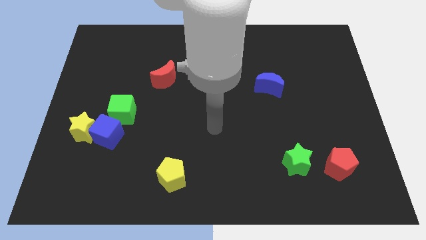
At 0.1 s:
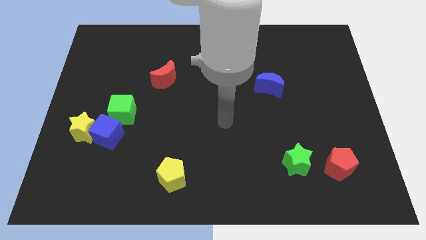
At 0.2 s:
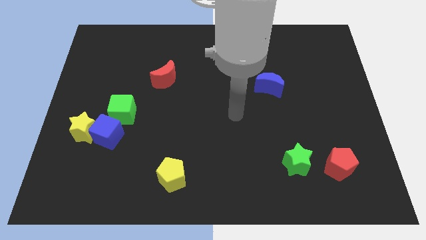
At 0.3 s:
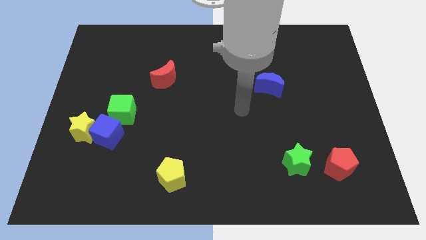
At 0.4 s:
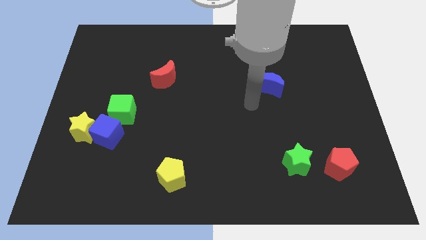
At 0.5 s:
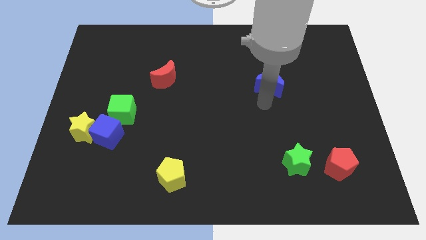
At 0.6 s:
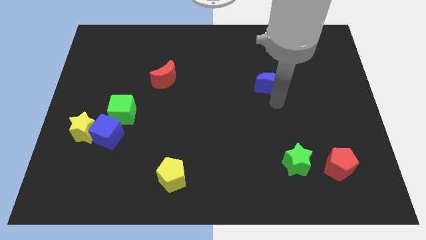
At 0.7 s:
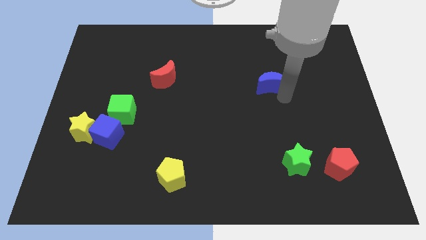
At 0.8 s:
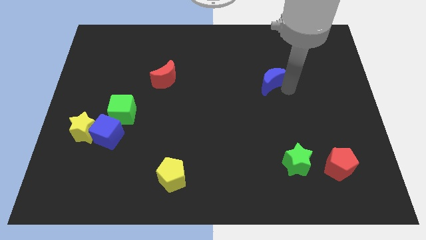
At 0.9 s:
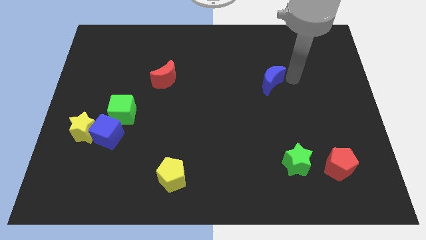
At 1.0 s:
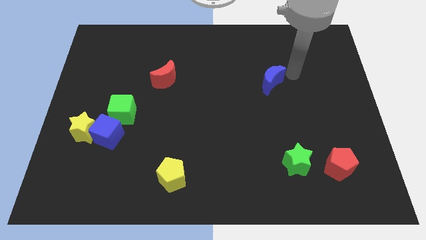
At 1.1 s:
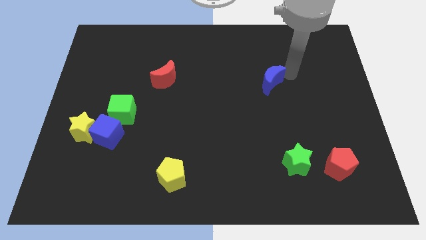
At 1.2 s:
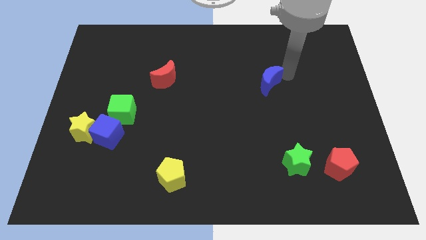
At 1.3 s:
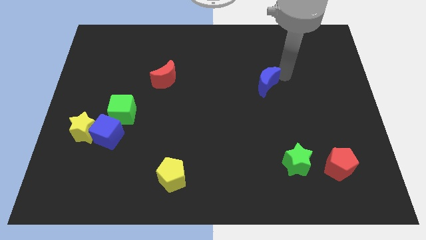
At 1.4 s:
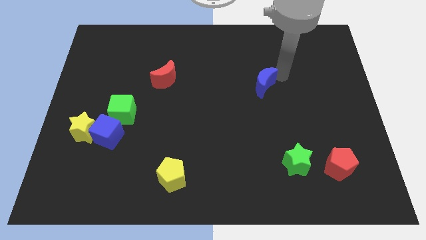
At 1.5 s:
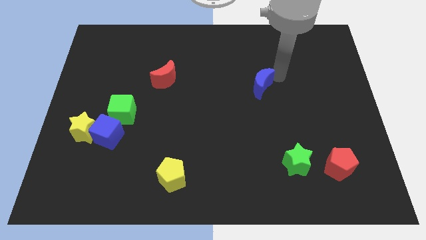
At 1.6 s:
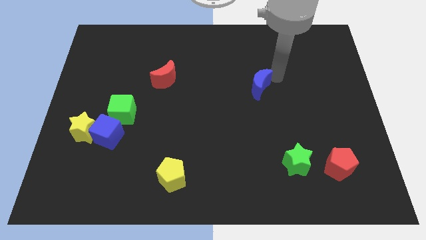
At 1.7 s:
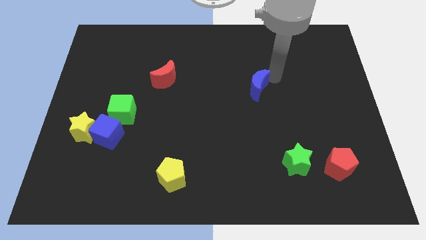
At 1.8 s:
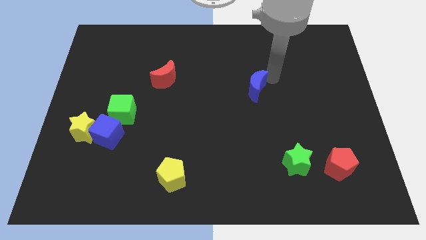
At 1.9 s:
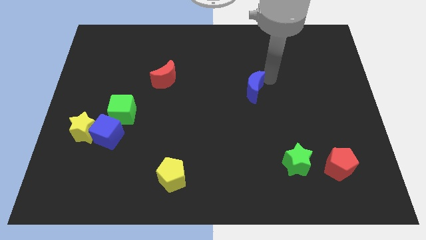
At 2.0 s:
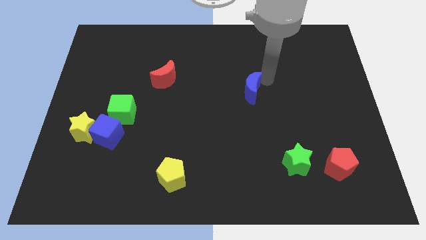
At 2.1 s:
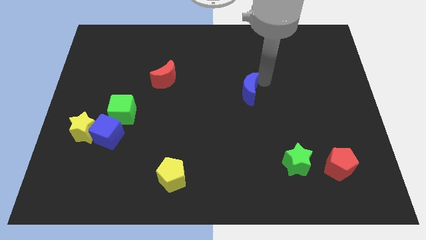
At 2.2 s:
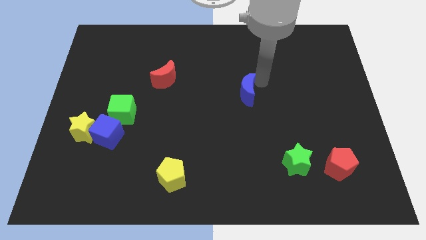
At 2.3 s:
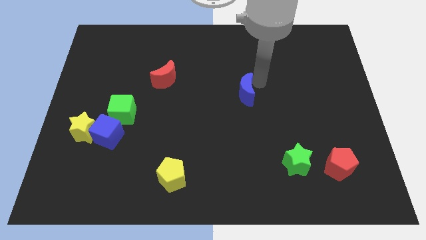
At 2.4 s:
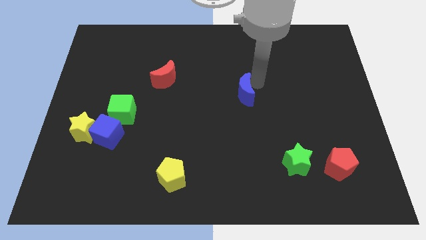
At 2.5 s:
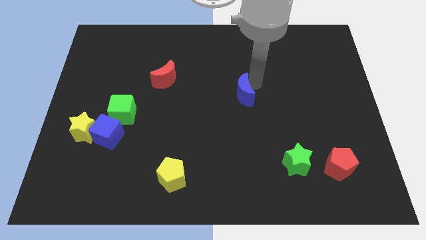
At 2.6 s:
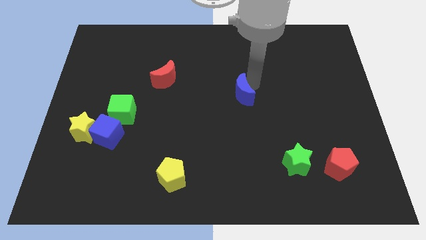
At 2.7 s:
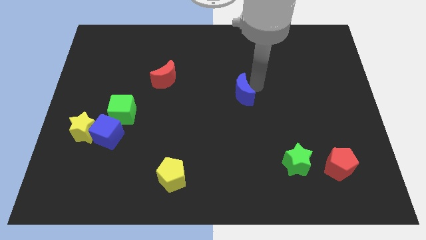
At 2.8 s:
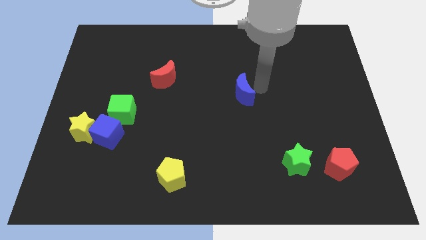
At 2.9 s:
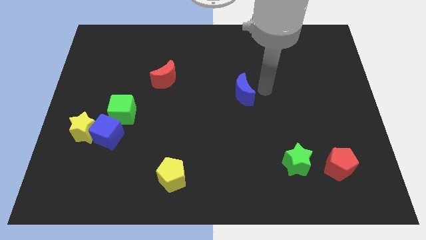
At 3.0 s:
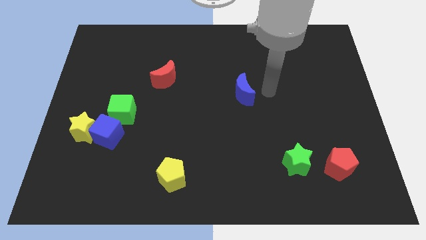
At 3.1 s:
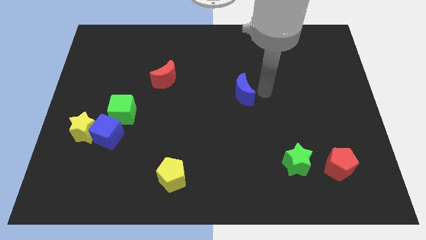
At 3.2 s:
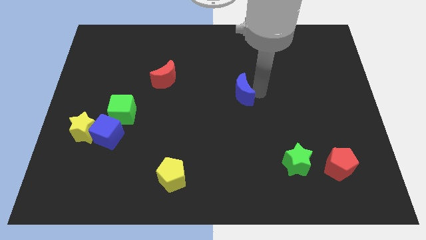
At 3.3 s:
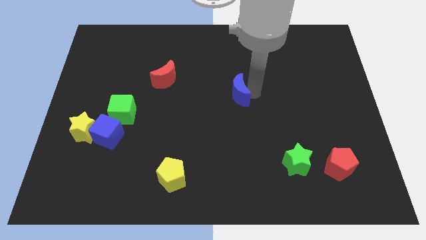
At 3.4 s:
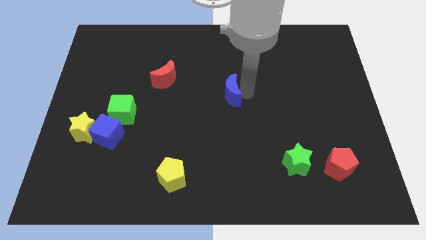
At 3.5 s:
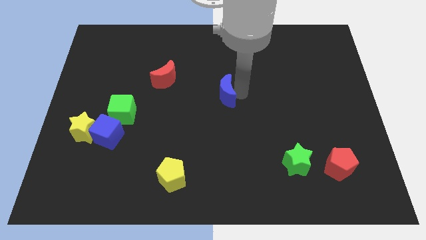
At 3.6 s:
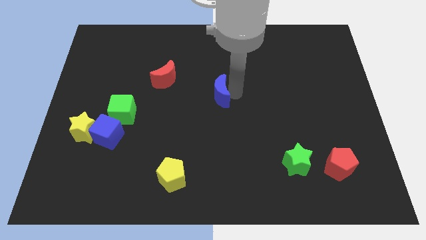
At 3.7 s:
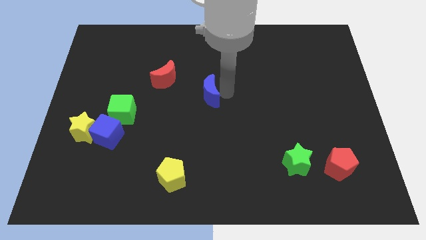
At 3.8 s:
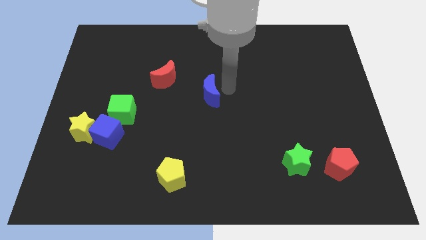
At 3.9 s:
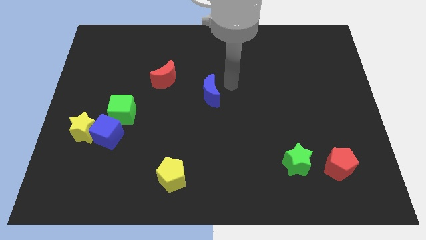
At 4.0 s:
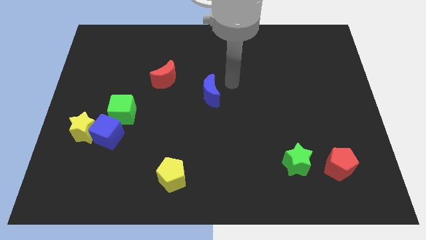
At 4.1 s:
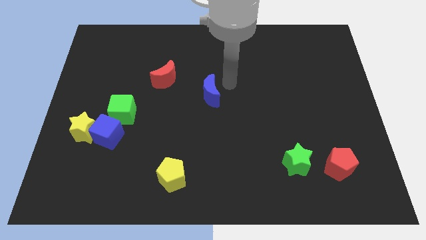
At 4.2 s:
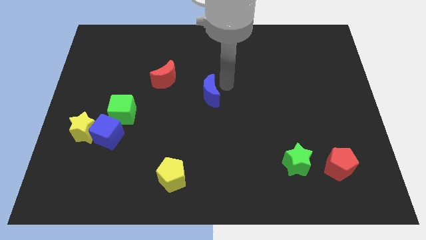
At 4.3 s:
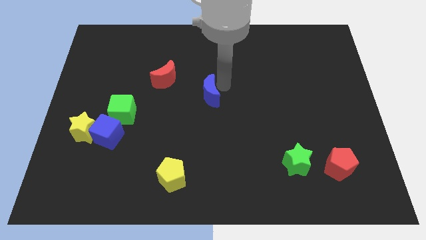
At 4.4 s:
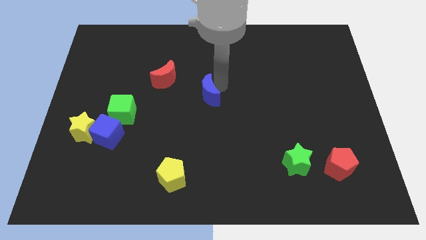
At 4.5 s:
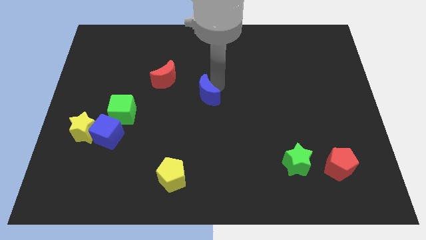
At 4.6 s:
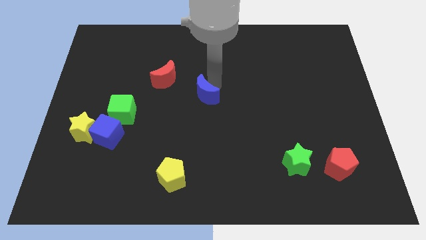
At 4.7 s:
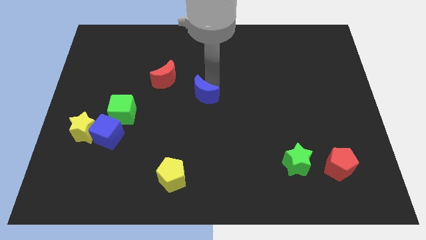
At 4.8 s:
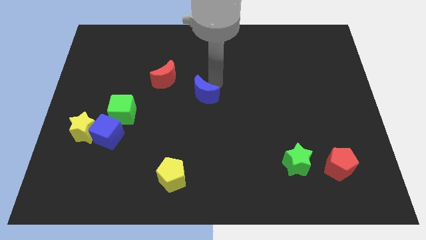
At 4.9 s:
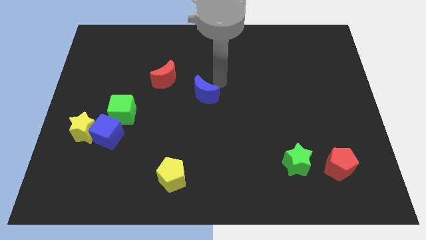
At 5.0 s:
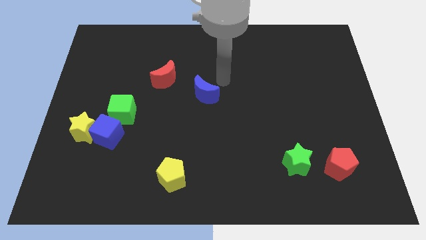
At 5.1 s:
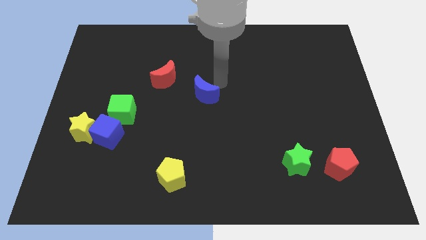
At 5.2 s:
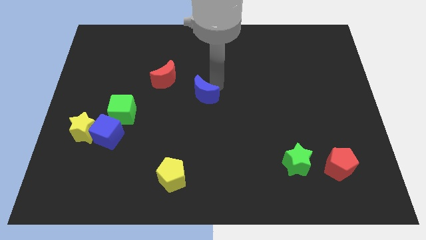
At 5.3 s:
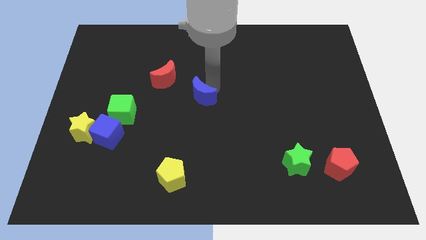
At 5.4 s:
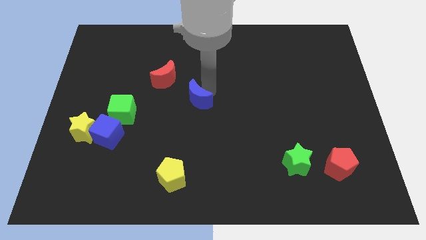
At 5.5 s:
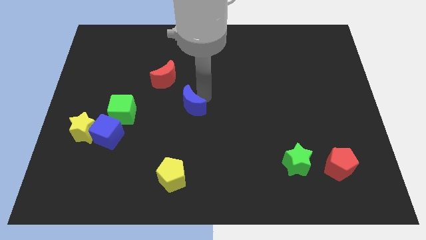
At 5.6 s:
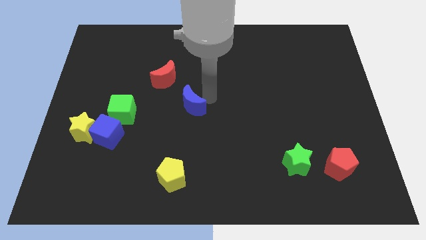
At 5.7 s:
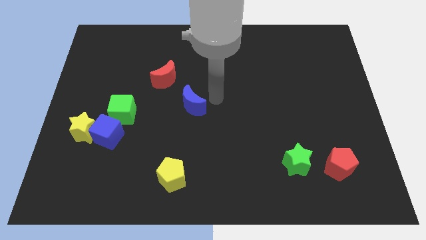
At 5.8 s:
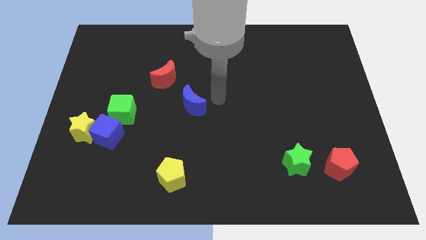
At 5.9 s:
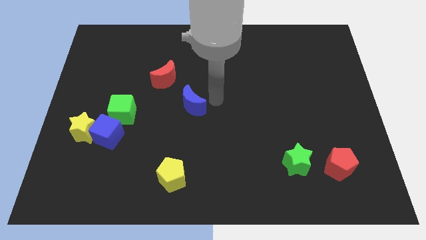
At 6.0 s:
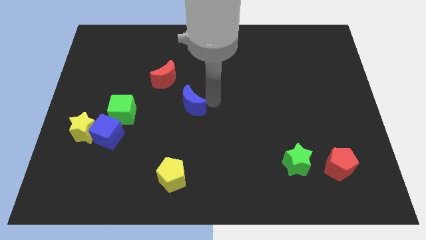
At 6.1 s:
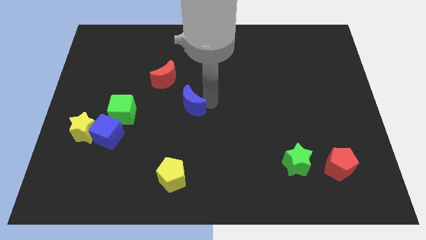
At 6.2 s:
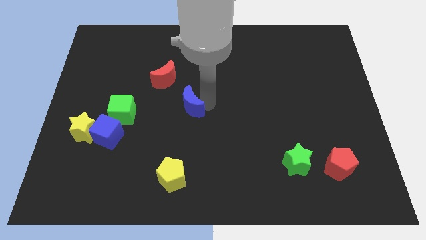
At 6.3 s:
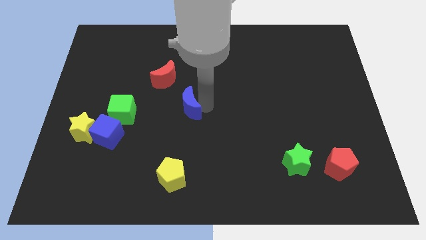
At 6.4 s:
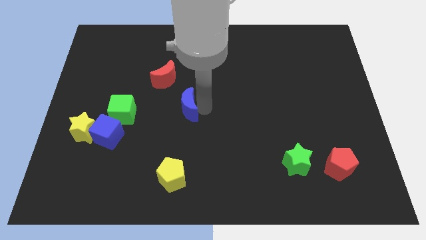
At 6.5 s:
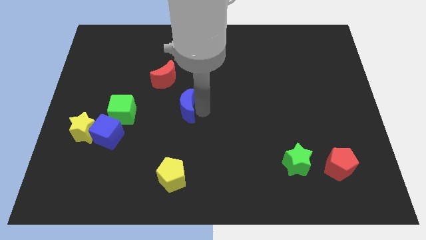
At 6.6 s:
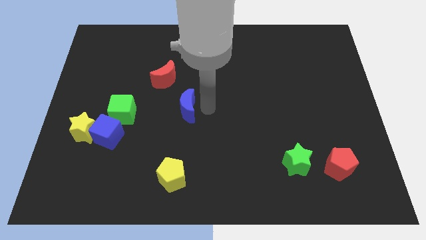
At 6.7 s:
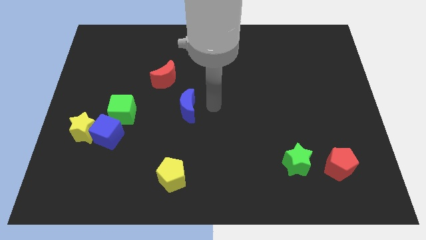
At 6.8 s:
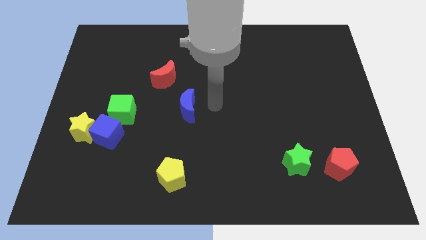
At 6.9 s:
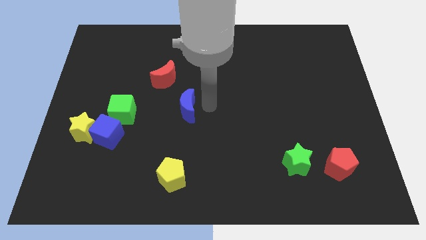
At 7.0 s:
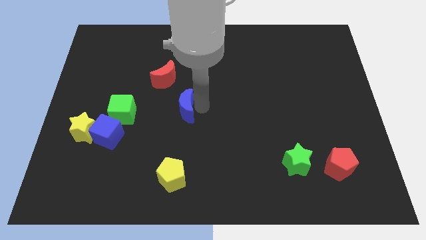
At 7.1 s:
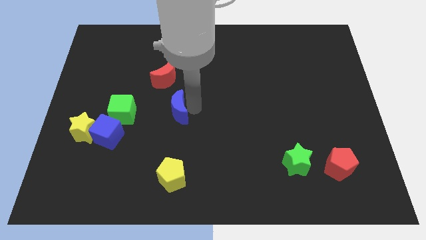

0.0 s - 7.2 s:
slide the blue moon to the bottom of the red moon
